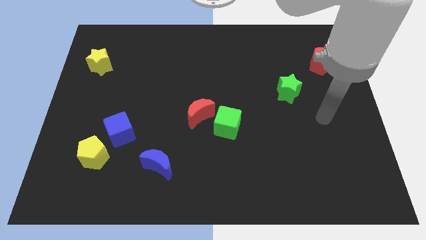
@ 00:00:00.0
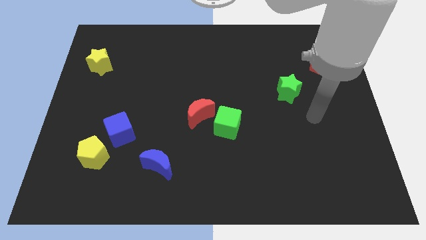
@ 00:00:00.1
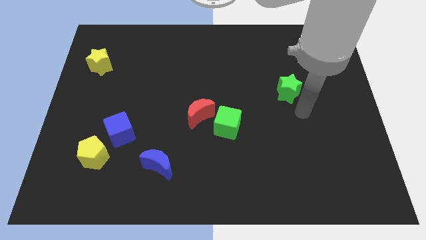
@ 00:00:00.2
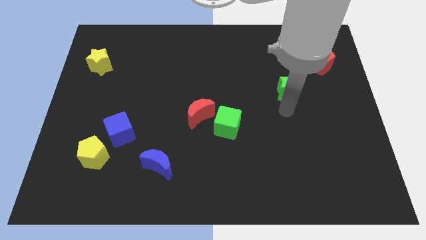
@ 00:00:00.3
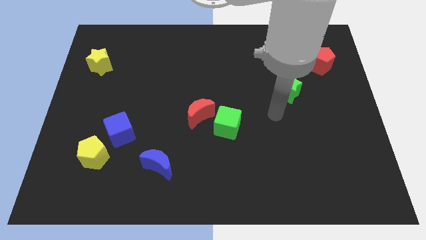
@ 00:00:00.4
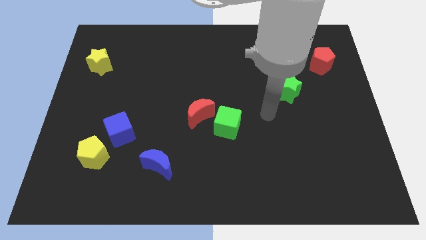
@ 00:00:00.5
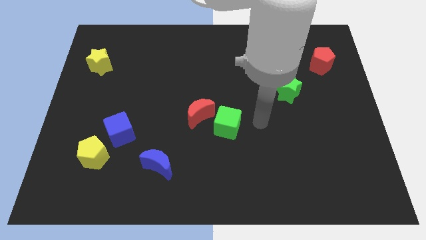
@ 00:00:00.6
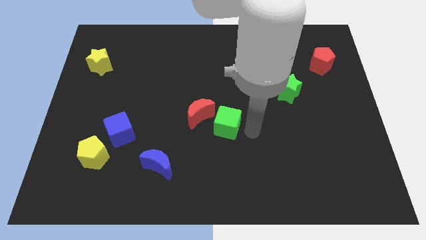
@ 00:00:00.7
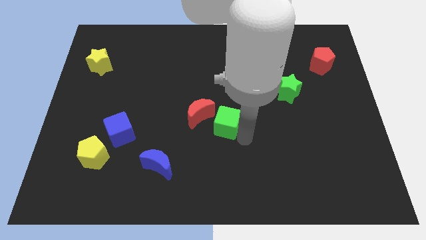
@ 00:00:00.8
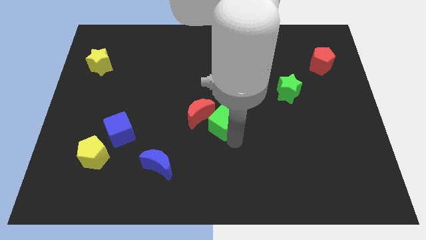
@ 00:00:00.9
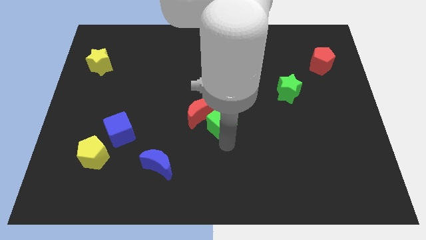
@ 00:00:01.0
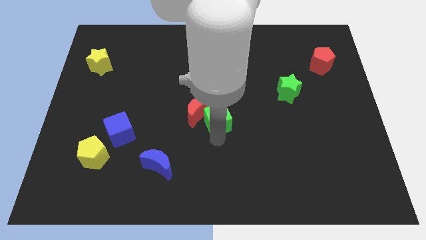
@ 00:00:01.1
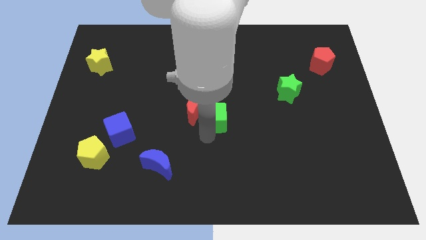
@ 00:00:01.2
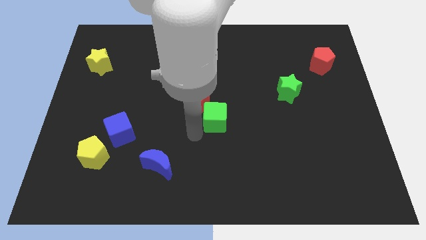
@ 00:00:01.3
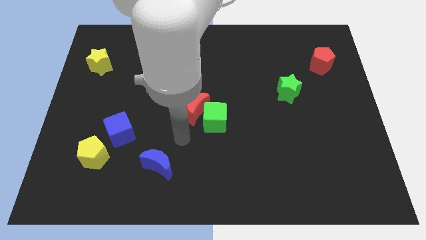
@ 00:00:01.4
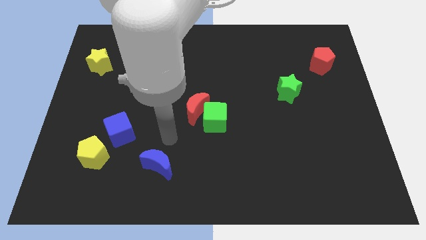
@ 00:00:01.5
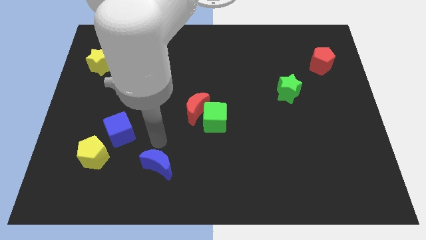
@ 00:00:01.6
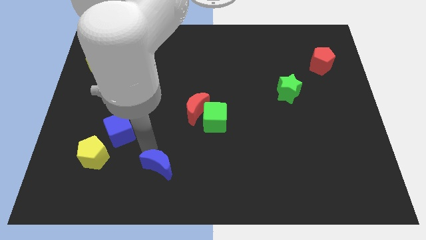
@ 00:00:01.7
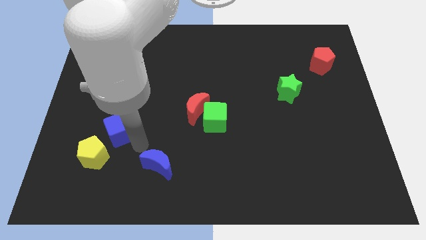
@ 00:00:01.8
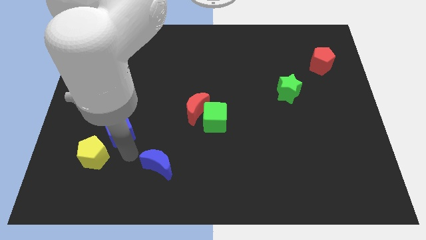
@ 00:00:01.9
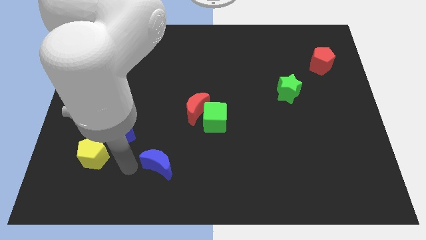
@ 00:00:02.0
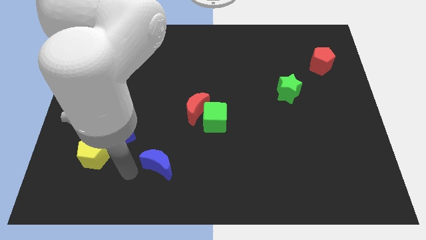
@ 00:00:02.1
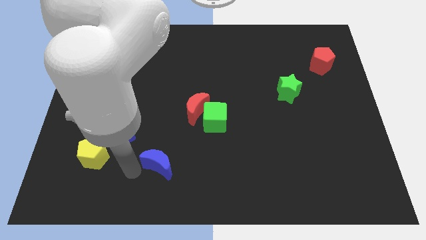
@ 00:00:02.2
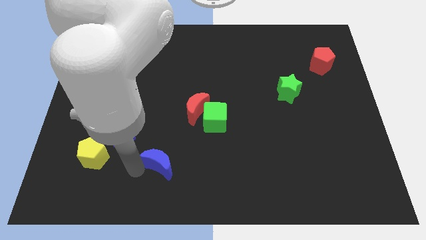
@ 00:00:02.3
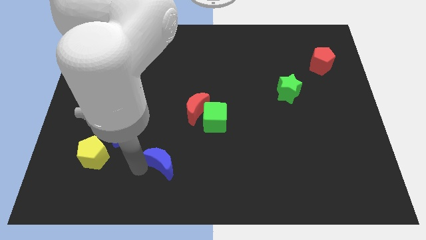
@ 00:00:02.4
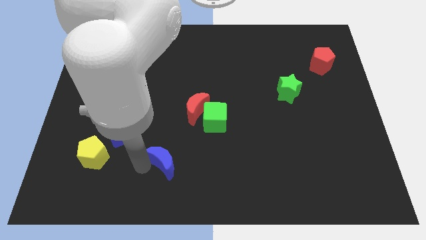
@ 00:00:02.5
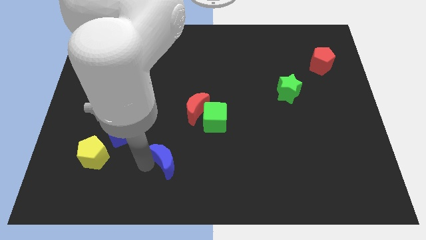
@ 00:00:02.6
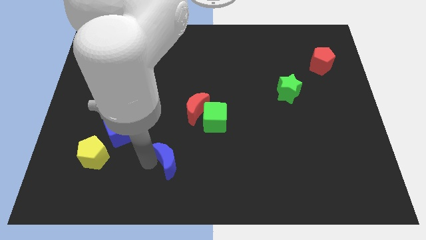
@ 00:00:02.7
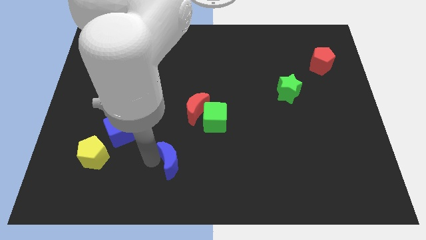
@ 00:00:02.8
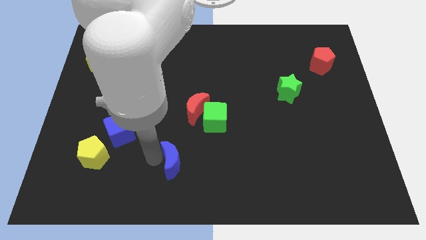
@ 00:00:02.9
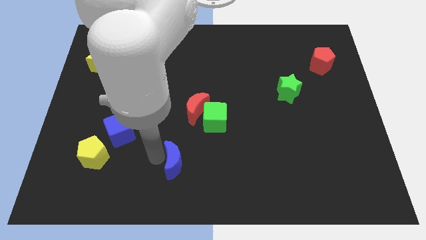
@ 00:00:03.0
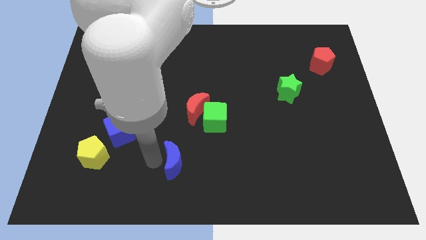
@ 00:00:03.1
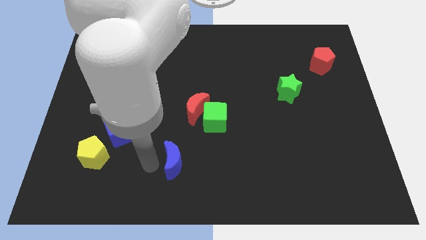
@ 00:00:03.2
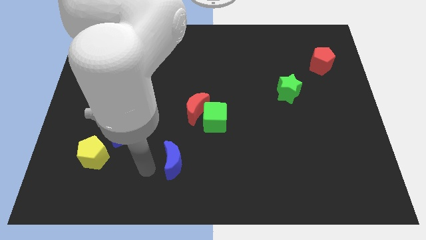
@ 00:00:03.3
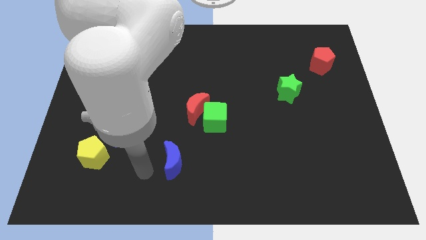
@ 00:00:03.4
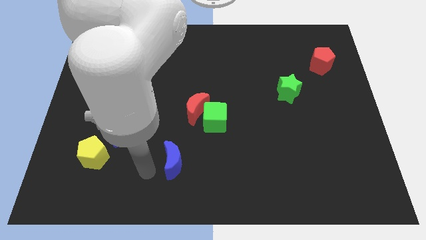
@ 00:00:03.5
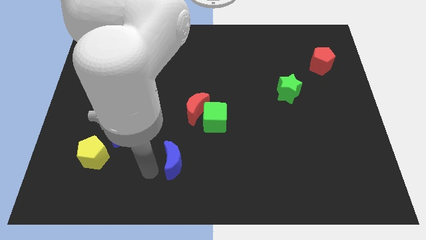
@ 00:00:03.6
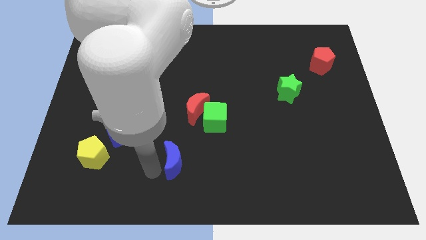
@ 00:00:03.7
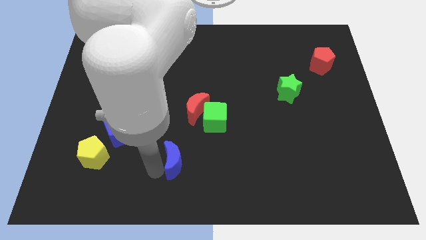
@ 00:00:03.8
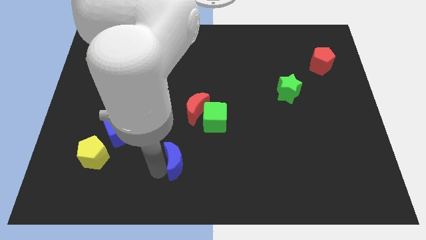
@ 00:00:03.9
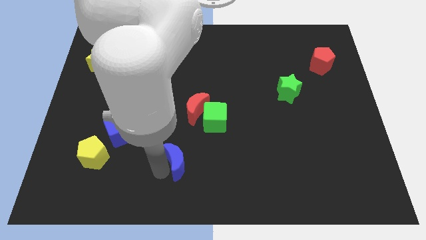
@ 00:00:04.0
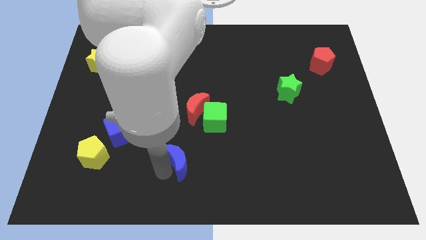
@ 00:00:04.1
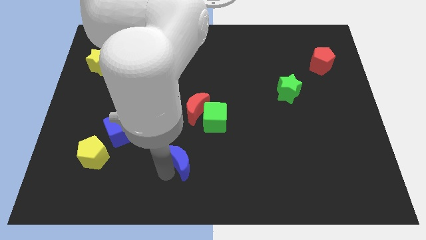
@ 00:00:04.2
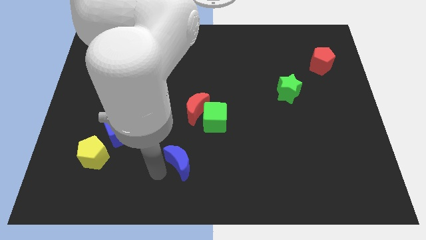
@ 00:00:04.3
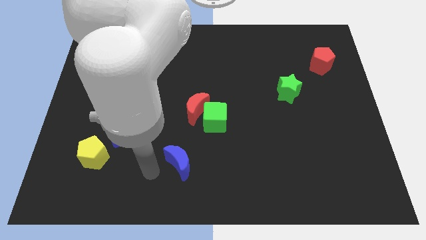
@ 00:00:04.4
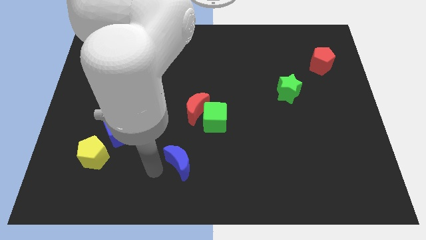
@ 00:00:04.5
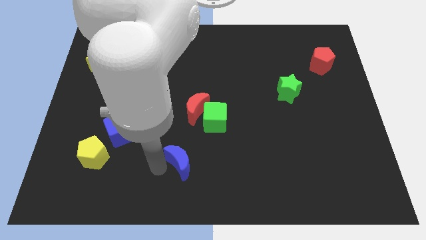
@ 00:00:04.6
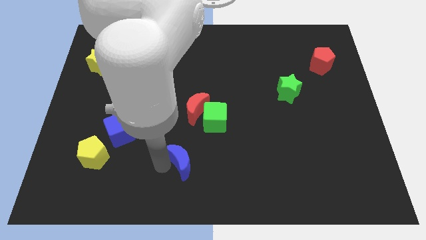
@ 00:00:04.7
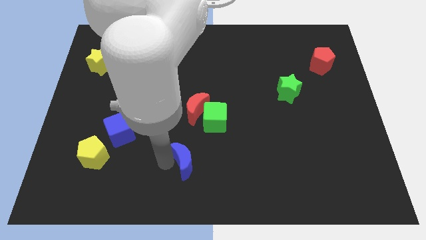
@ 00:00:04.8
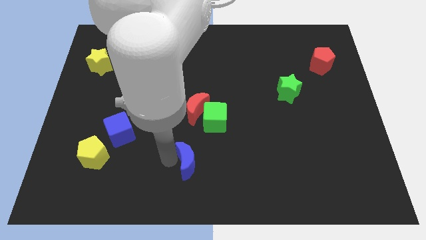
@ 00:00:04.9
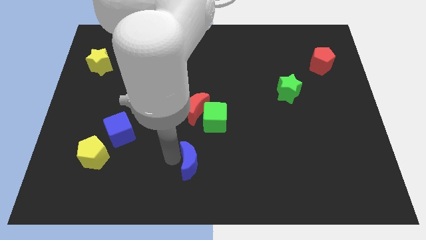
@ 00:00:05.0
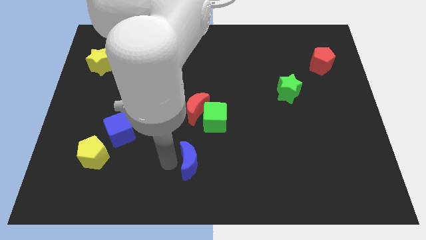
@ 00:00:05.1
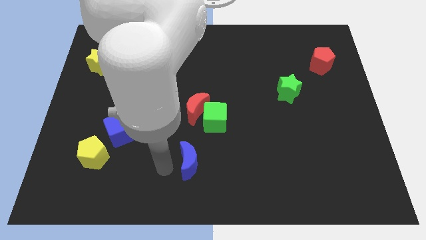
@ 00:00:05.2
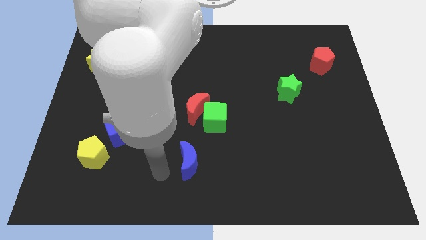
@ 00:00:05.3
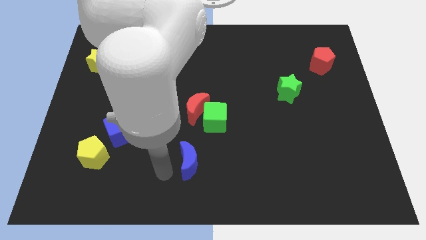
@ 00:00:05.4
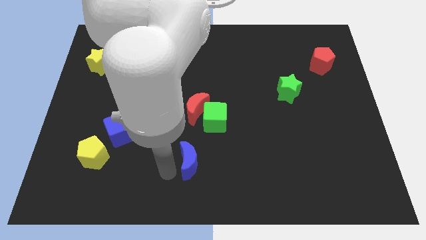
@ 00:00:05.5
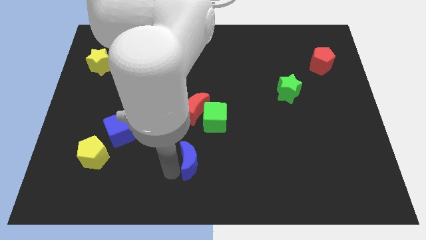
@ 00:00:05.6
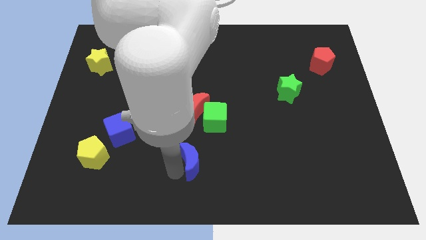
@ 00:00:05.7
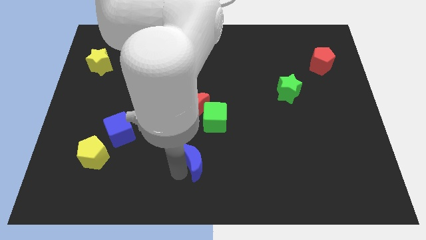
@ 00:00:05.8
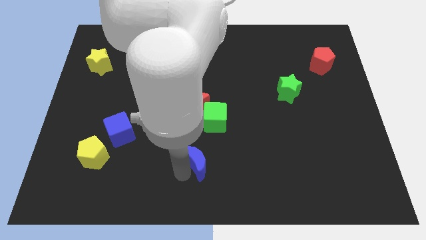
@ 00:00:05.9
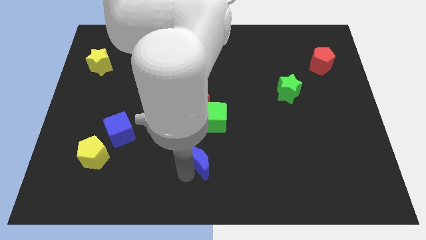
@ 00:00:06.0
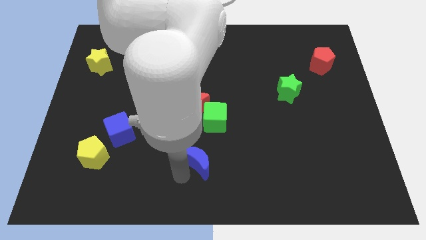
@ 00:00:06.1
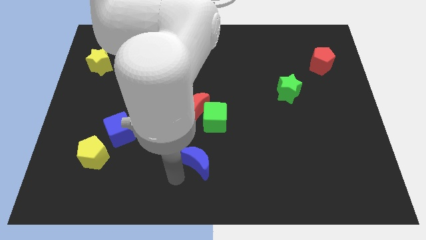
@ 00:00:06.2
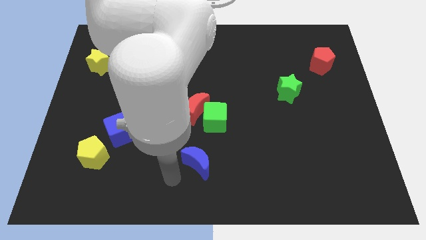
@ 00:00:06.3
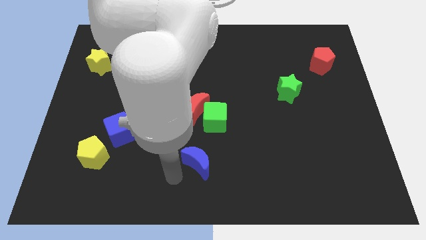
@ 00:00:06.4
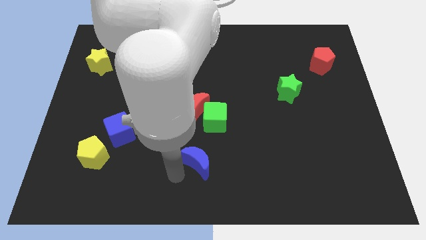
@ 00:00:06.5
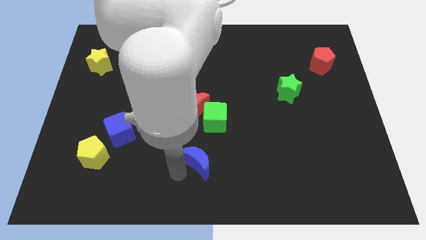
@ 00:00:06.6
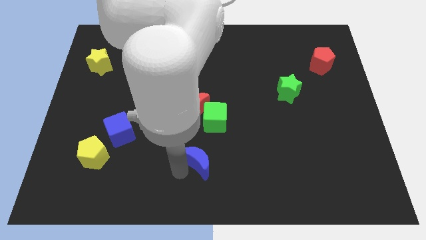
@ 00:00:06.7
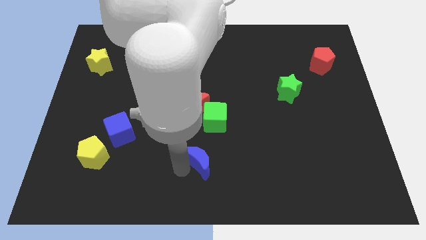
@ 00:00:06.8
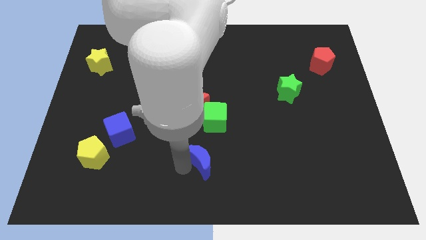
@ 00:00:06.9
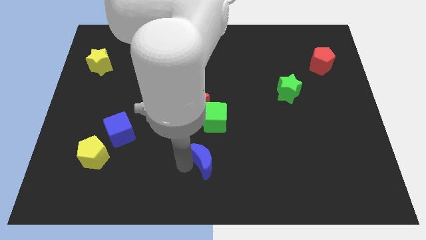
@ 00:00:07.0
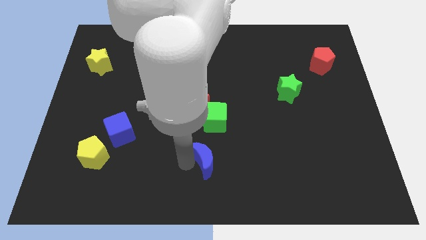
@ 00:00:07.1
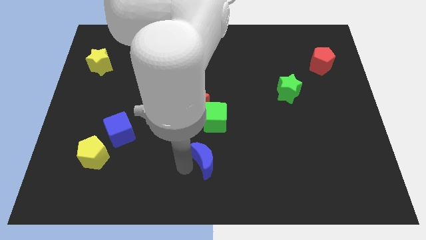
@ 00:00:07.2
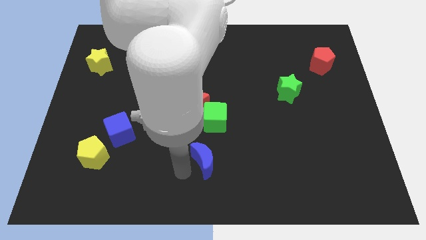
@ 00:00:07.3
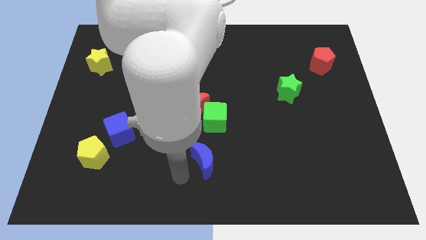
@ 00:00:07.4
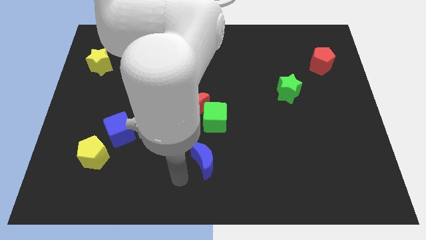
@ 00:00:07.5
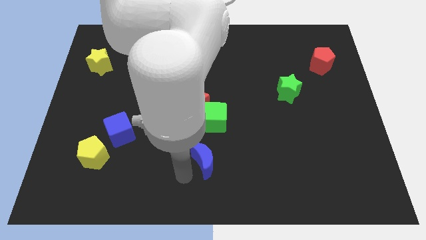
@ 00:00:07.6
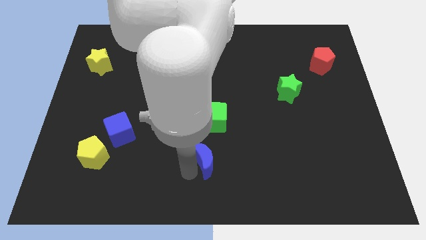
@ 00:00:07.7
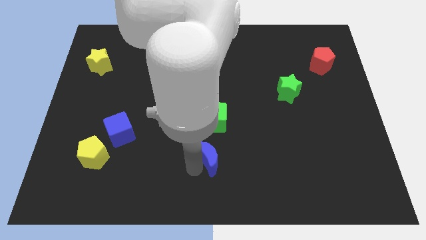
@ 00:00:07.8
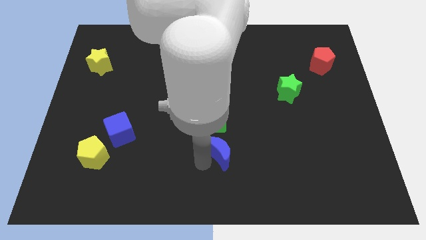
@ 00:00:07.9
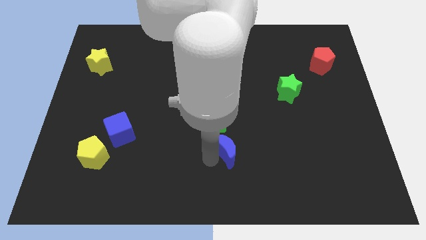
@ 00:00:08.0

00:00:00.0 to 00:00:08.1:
push the blue moon diagonally down and to the right of the green cube
